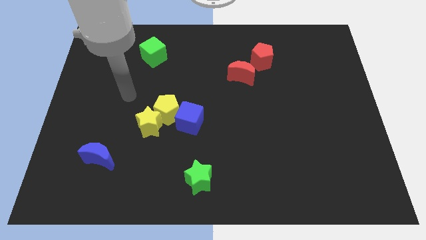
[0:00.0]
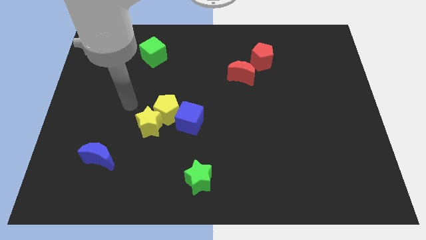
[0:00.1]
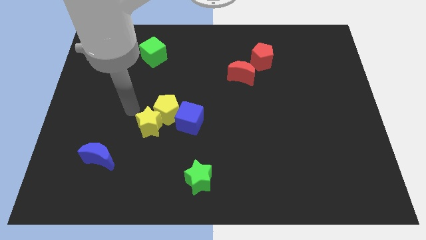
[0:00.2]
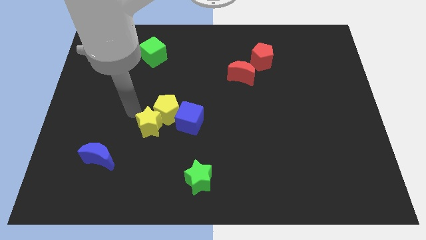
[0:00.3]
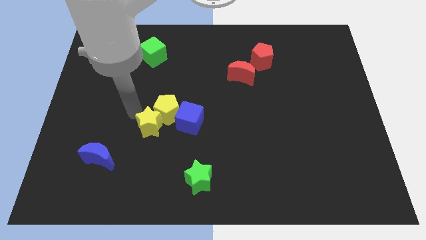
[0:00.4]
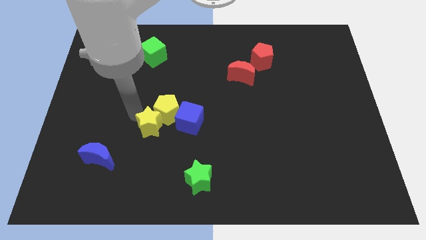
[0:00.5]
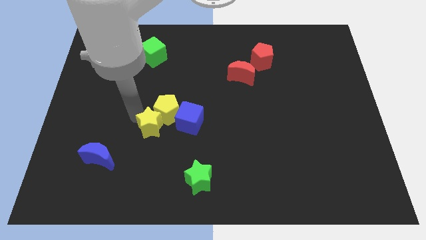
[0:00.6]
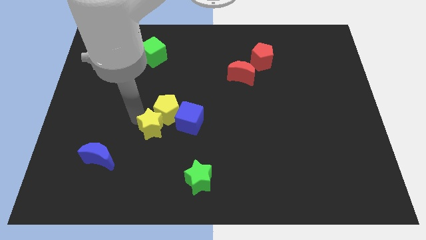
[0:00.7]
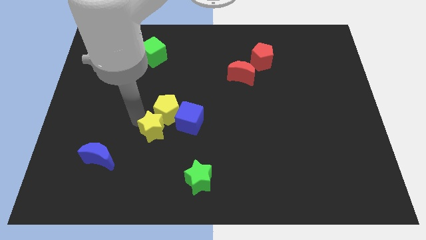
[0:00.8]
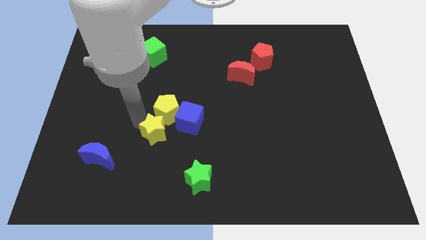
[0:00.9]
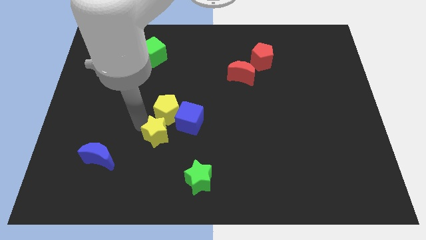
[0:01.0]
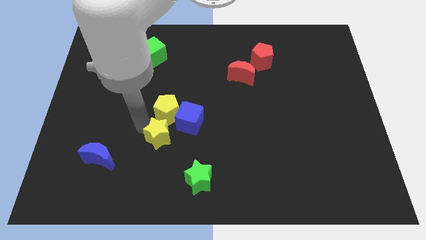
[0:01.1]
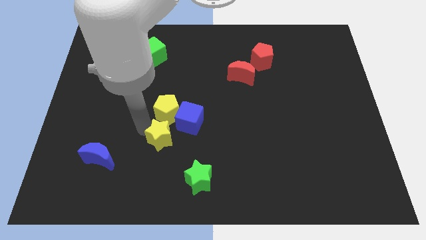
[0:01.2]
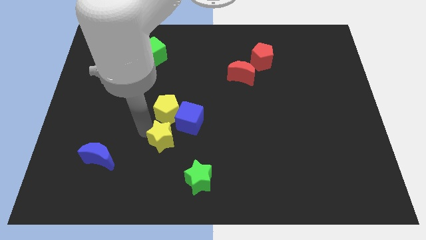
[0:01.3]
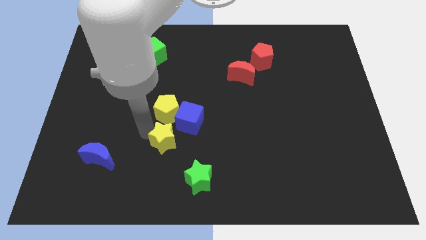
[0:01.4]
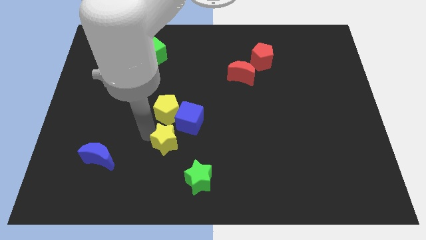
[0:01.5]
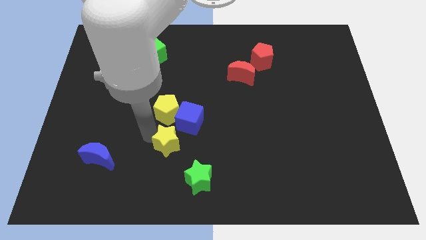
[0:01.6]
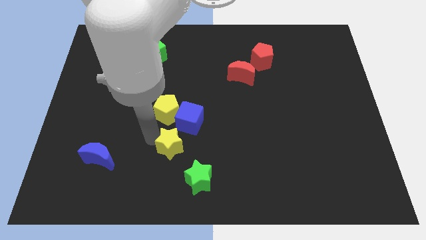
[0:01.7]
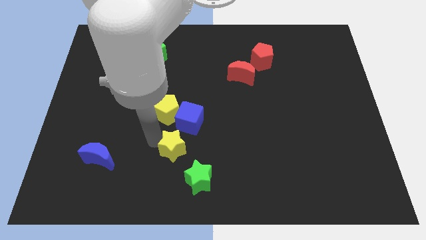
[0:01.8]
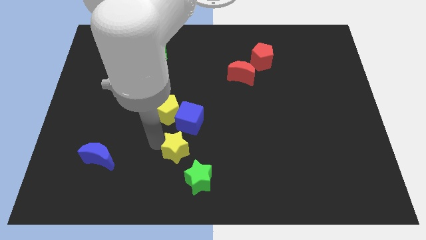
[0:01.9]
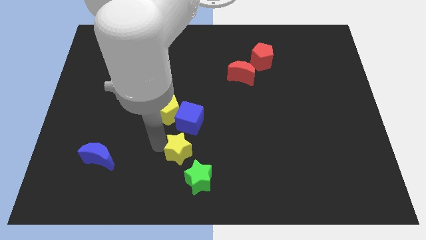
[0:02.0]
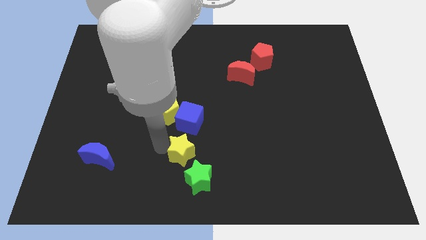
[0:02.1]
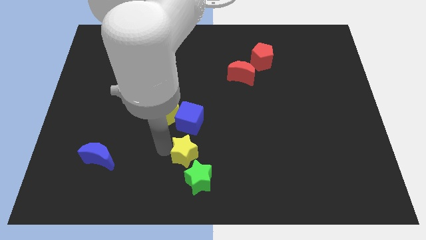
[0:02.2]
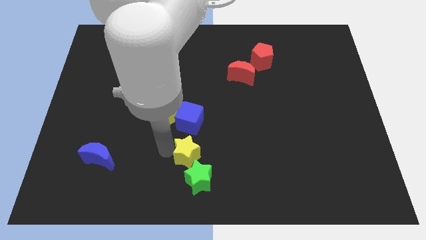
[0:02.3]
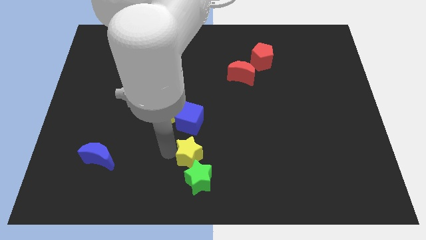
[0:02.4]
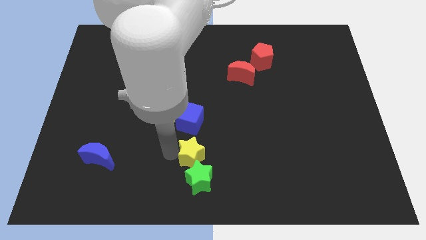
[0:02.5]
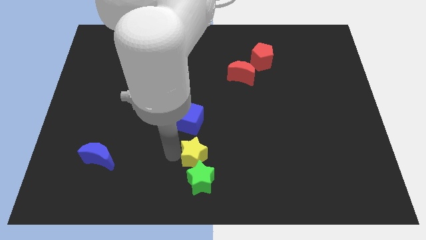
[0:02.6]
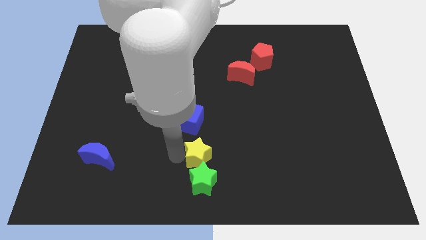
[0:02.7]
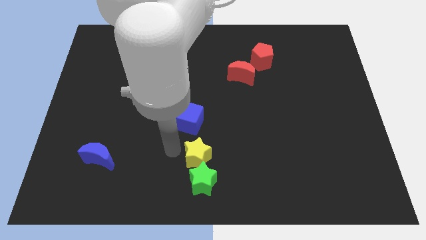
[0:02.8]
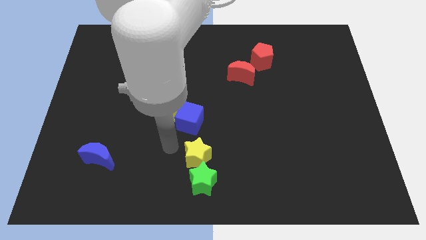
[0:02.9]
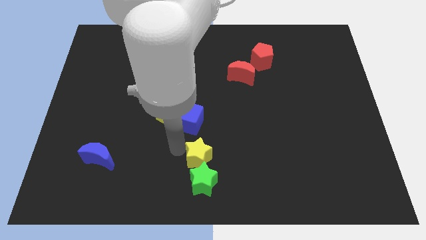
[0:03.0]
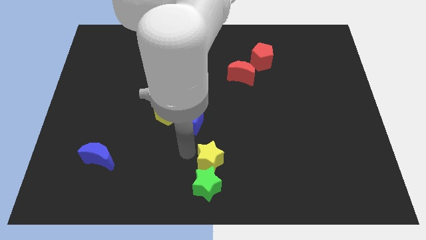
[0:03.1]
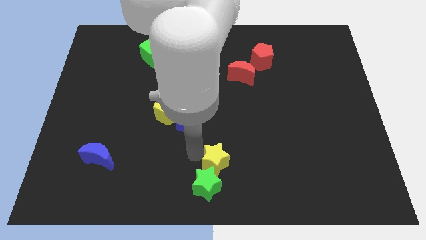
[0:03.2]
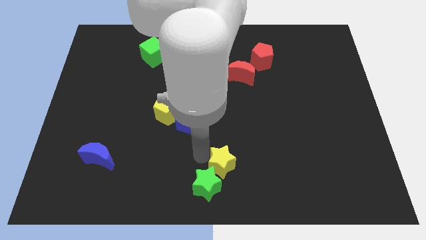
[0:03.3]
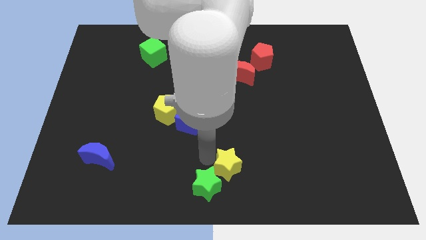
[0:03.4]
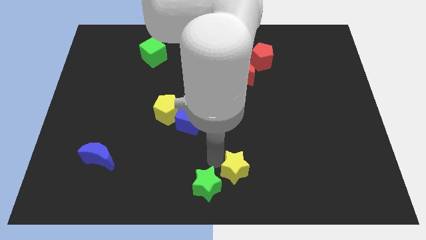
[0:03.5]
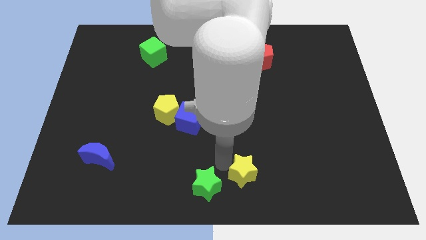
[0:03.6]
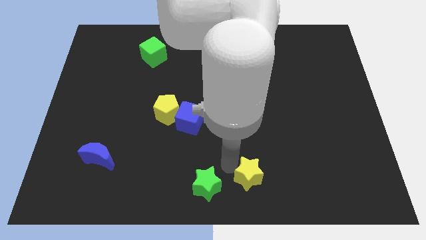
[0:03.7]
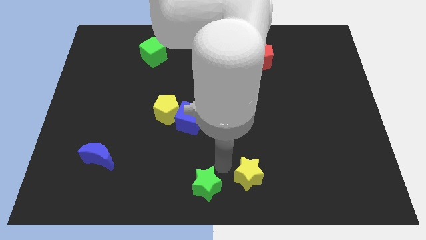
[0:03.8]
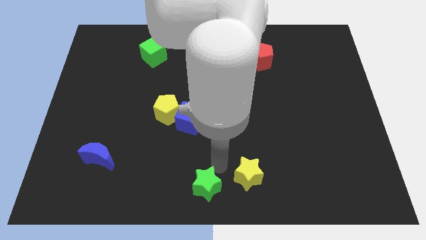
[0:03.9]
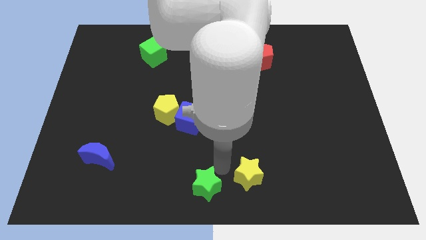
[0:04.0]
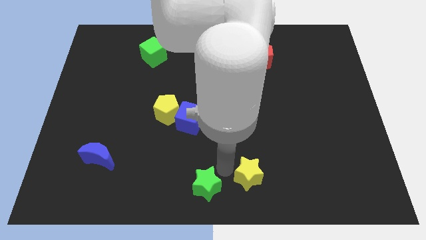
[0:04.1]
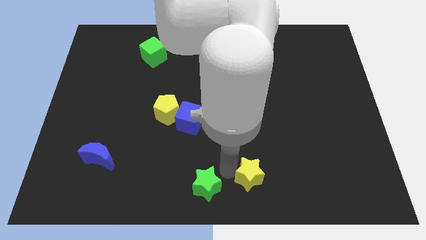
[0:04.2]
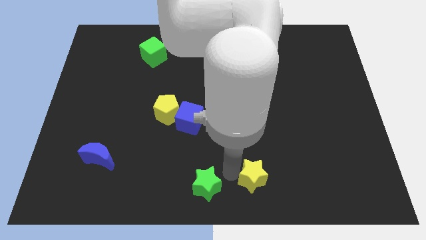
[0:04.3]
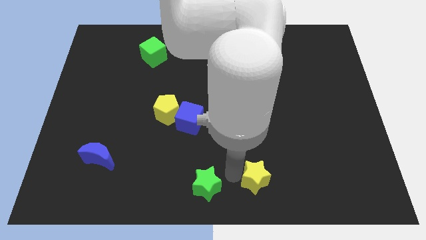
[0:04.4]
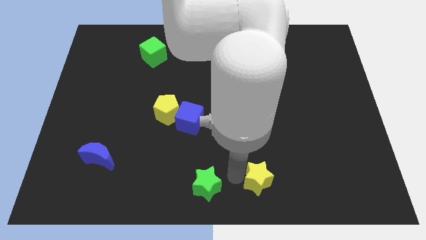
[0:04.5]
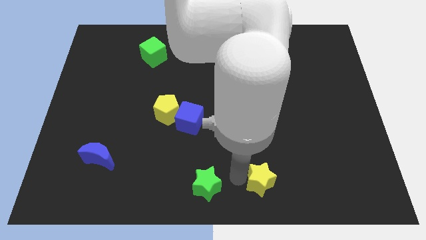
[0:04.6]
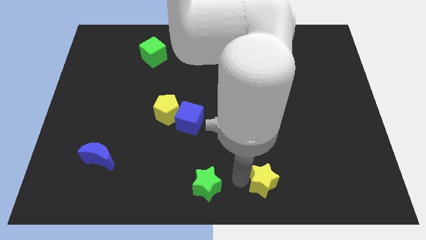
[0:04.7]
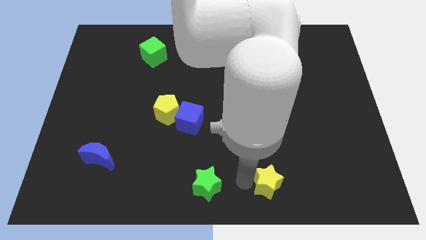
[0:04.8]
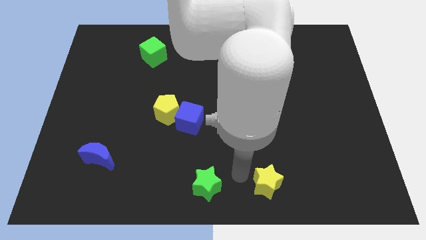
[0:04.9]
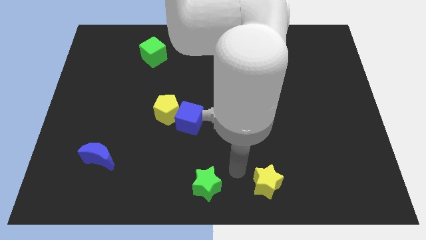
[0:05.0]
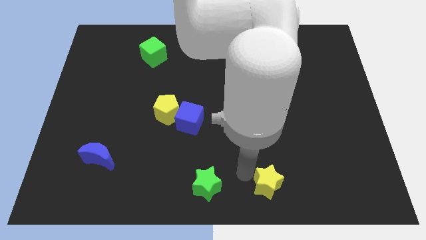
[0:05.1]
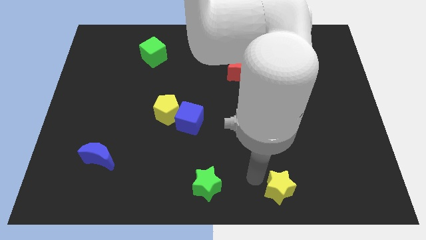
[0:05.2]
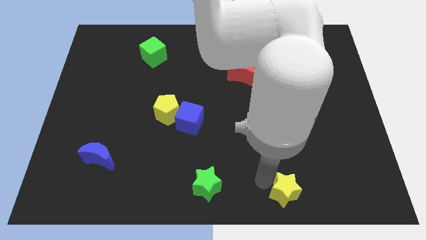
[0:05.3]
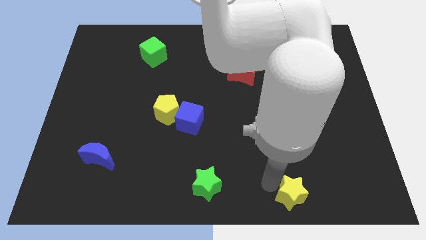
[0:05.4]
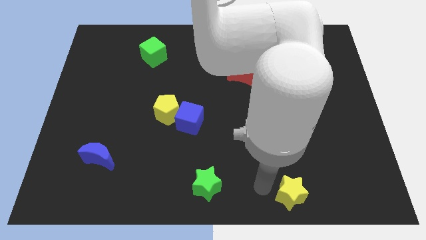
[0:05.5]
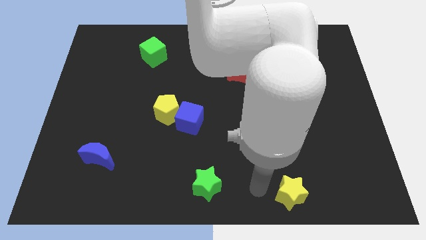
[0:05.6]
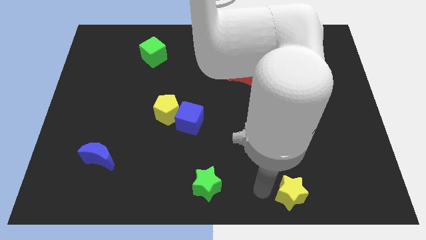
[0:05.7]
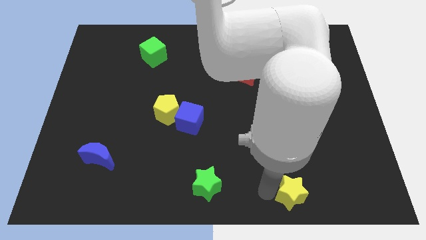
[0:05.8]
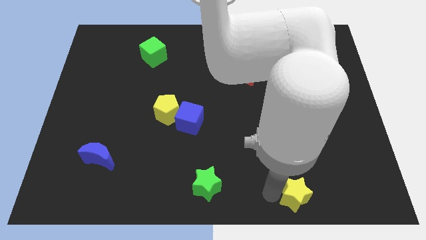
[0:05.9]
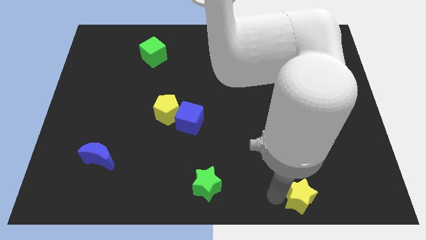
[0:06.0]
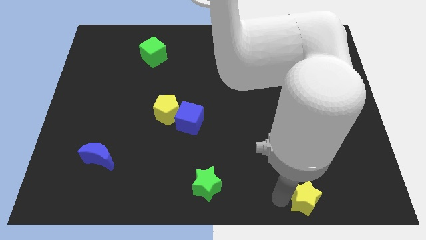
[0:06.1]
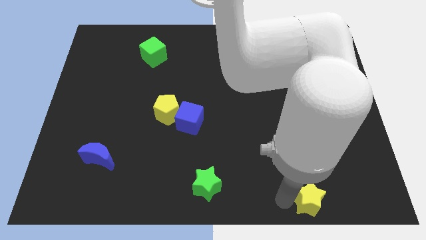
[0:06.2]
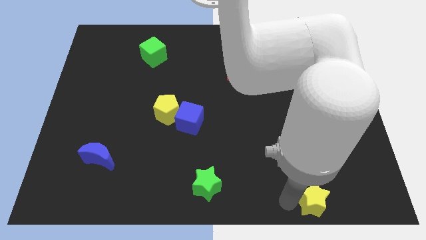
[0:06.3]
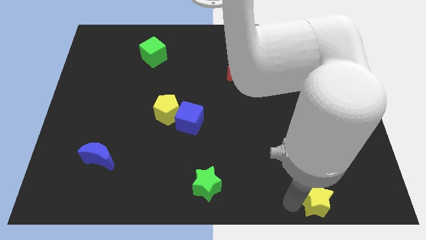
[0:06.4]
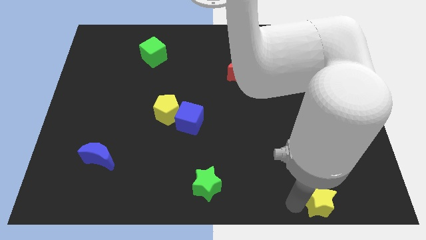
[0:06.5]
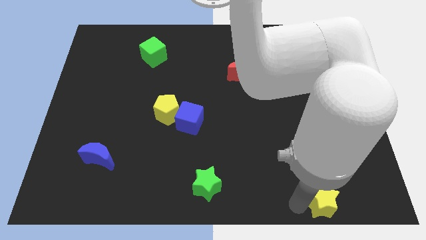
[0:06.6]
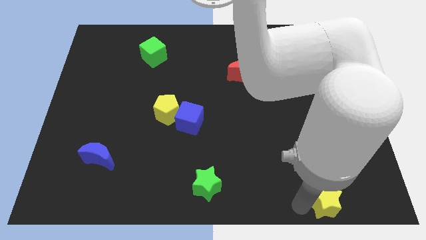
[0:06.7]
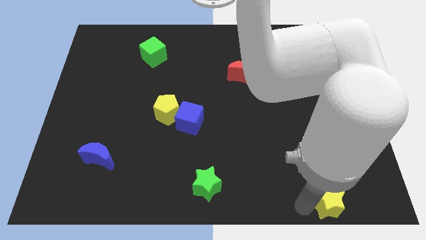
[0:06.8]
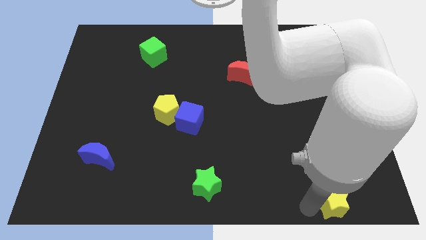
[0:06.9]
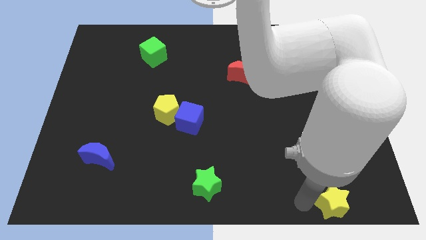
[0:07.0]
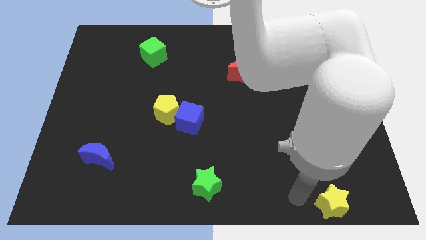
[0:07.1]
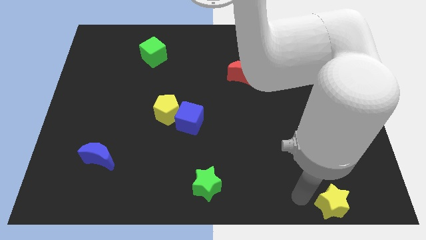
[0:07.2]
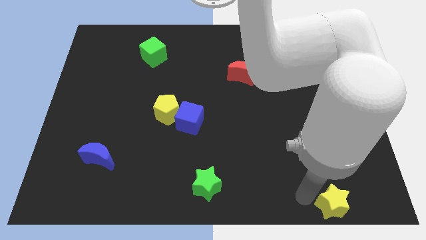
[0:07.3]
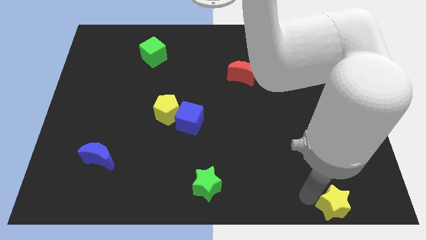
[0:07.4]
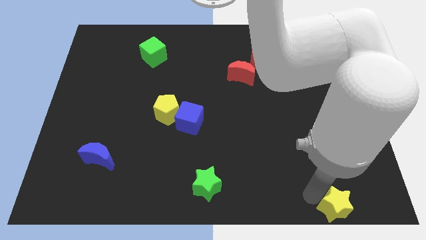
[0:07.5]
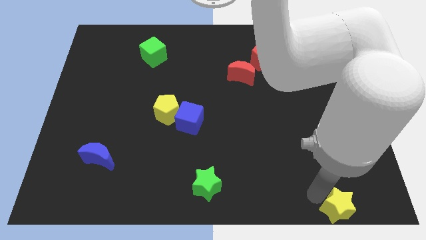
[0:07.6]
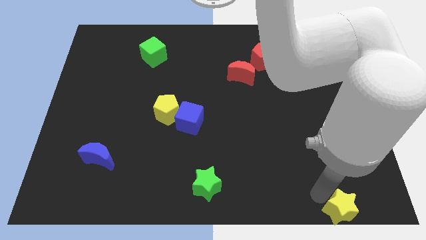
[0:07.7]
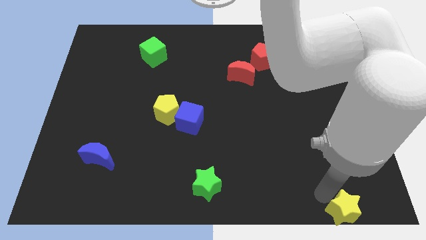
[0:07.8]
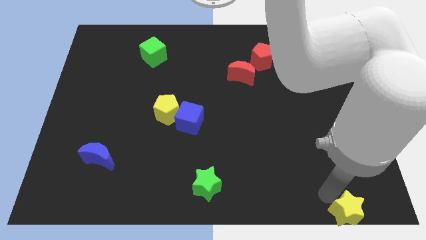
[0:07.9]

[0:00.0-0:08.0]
put the yellow star to the lower right corner
